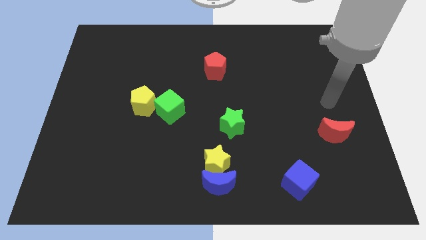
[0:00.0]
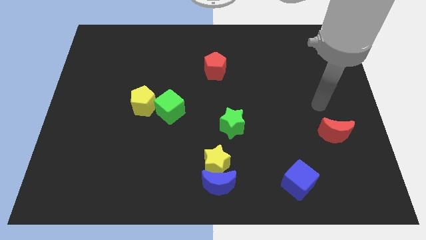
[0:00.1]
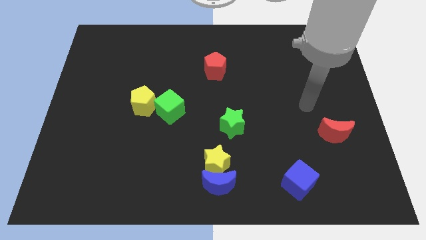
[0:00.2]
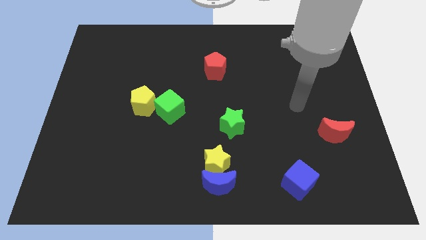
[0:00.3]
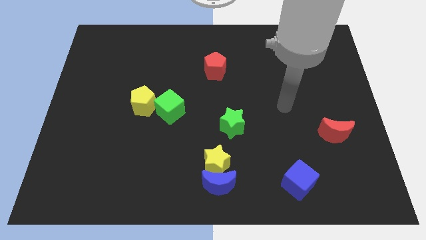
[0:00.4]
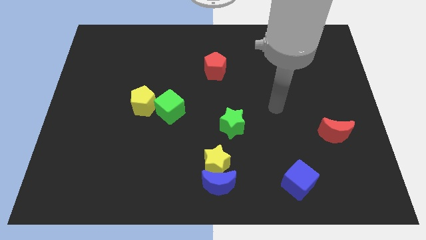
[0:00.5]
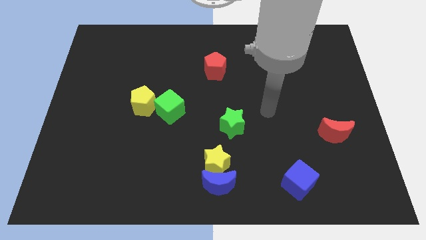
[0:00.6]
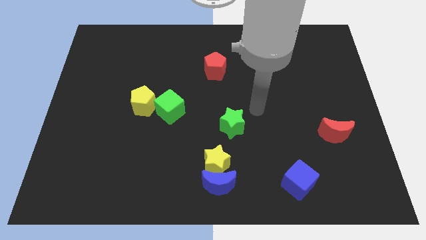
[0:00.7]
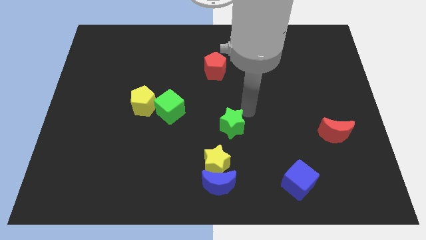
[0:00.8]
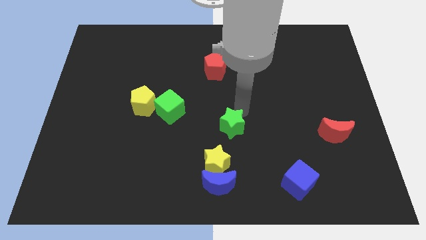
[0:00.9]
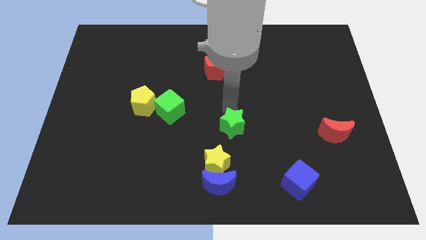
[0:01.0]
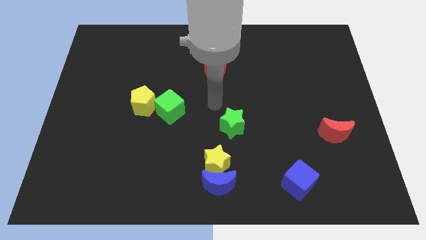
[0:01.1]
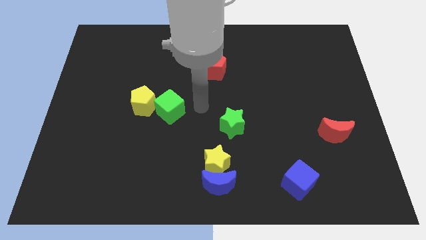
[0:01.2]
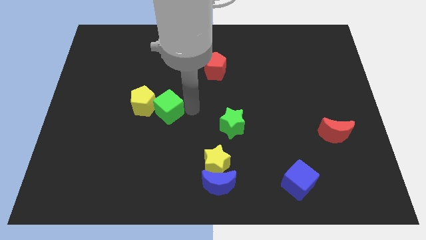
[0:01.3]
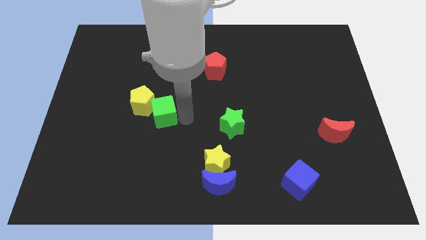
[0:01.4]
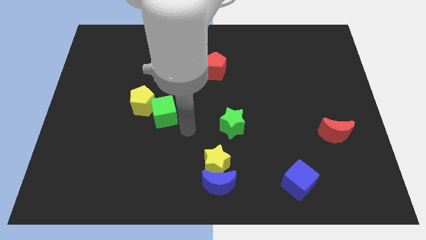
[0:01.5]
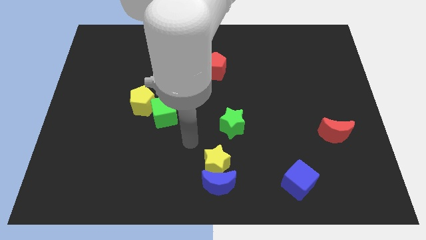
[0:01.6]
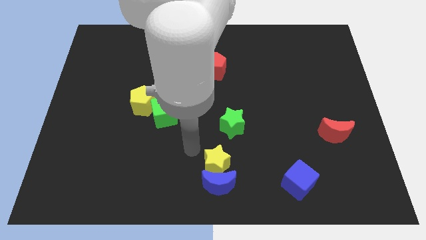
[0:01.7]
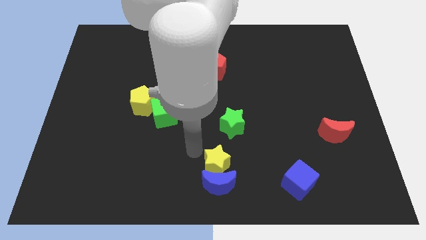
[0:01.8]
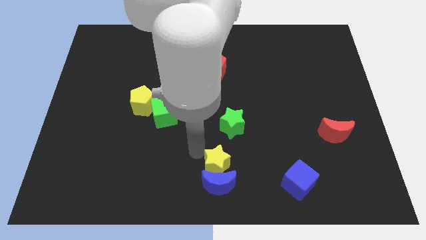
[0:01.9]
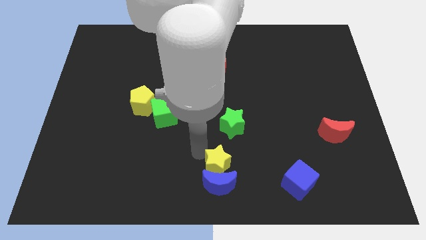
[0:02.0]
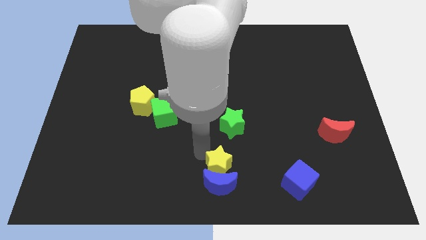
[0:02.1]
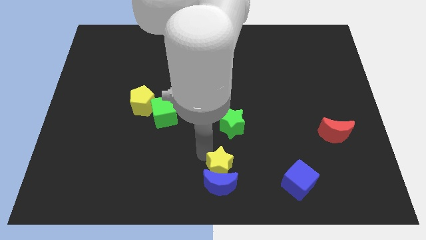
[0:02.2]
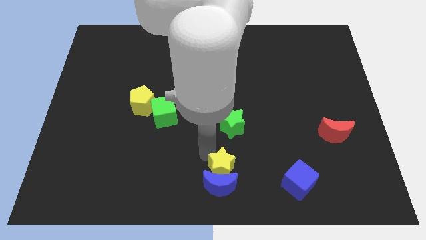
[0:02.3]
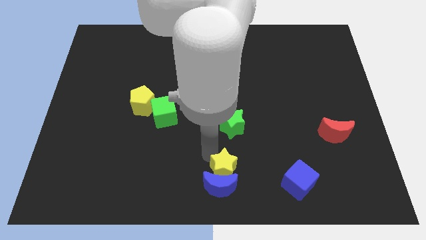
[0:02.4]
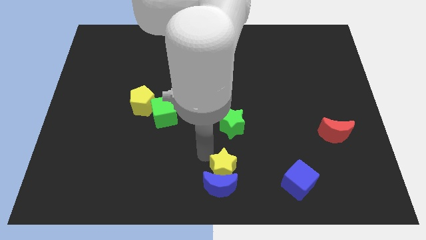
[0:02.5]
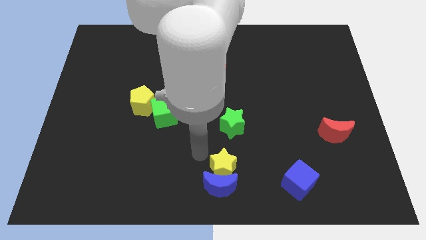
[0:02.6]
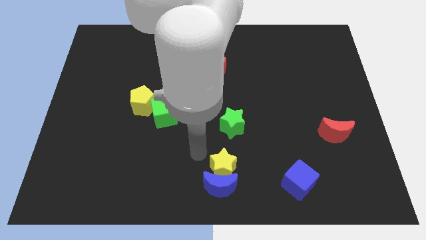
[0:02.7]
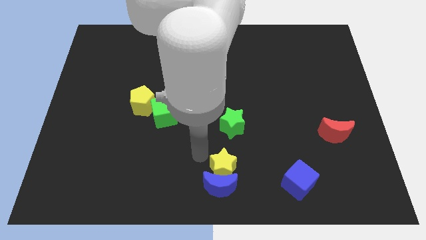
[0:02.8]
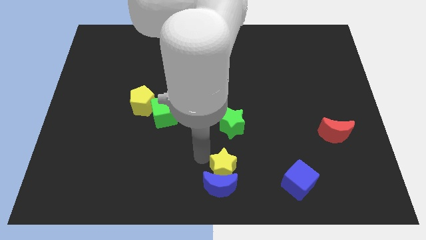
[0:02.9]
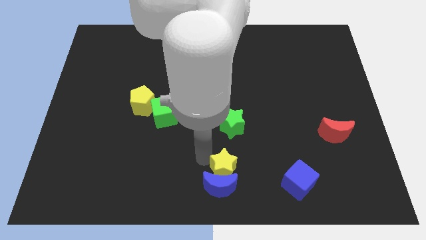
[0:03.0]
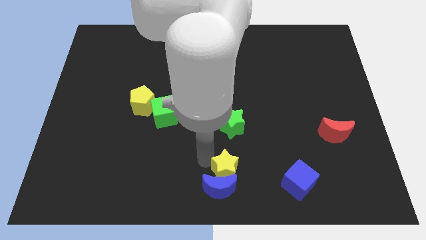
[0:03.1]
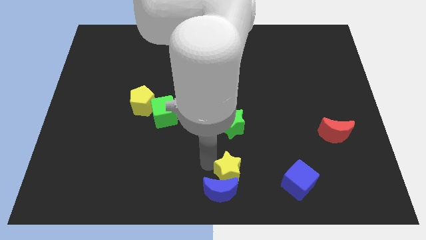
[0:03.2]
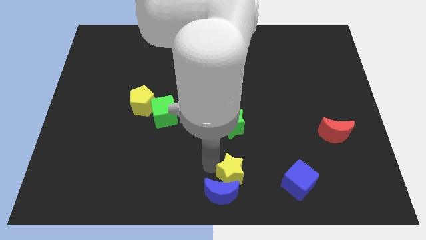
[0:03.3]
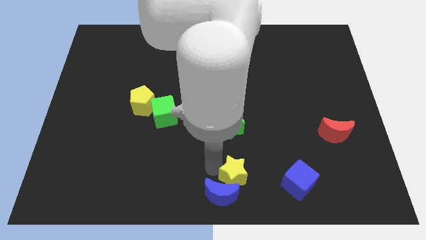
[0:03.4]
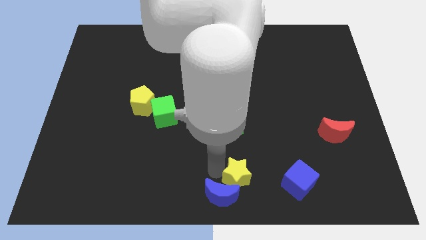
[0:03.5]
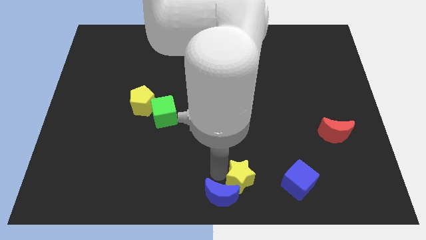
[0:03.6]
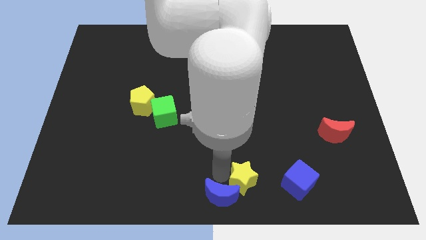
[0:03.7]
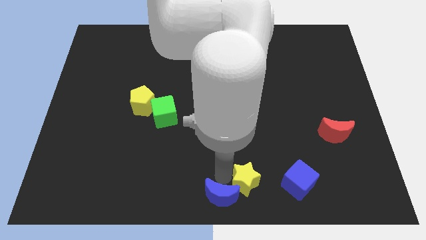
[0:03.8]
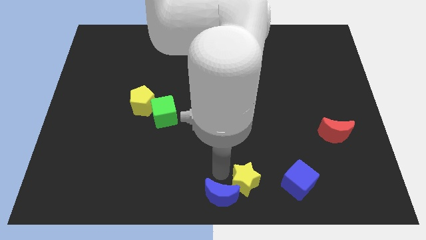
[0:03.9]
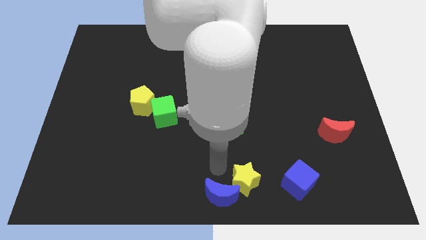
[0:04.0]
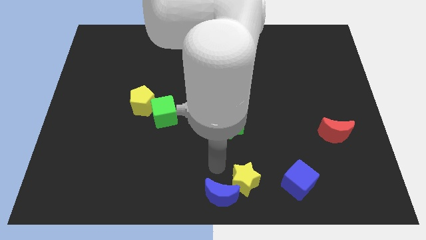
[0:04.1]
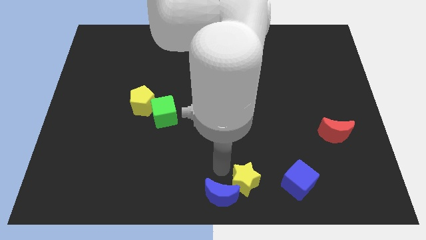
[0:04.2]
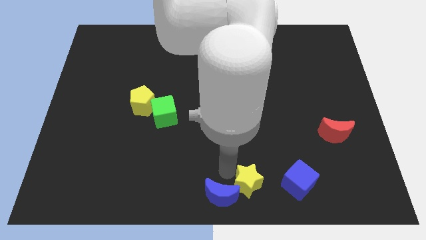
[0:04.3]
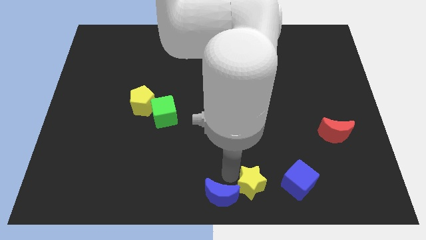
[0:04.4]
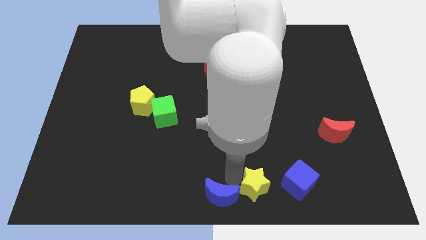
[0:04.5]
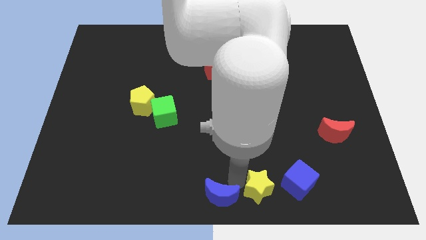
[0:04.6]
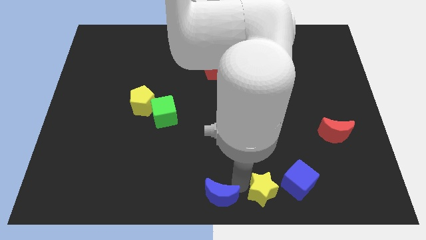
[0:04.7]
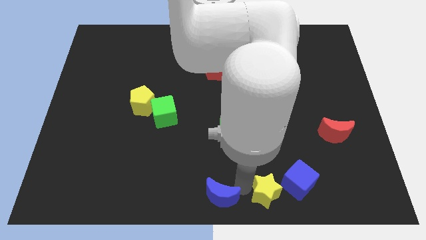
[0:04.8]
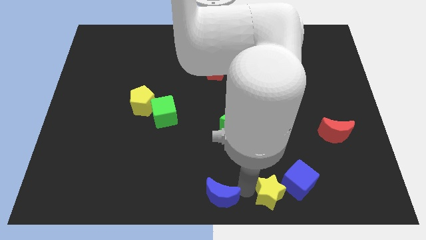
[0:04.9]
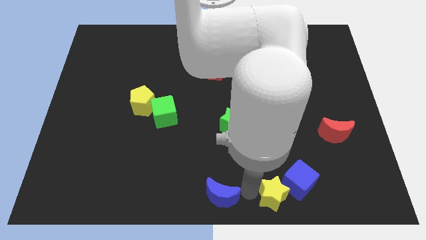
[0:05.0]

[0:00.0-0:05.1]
slide the yellow star close to the blue cube

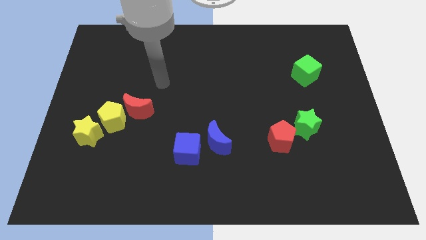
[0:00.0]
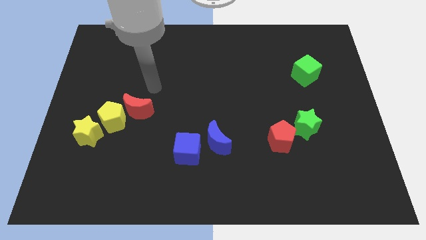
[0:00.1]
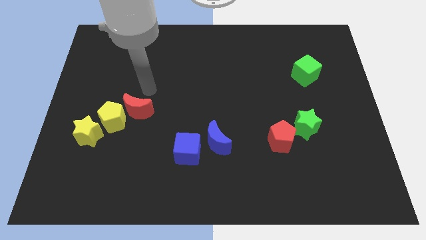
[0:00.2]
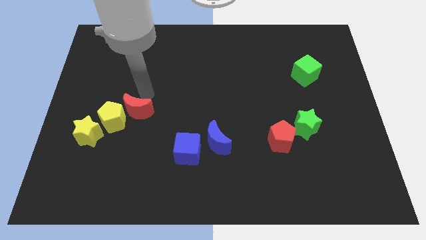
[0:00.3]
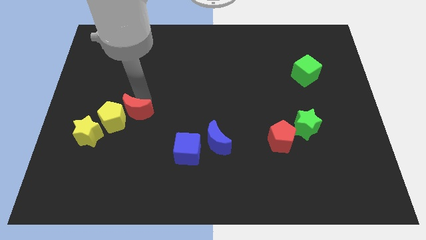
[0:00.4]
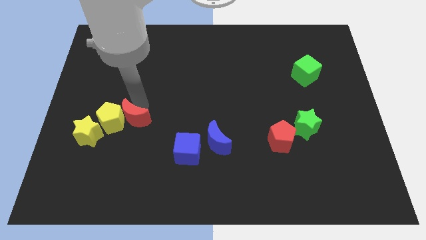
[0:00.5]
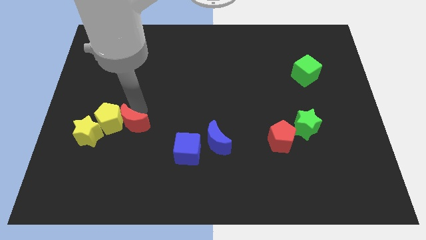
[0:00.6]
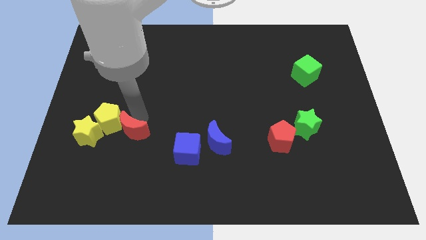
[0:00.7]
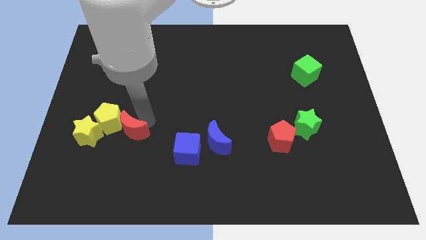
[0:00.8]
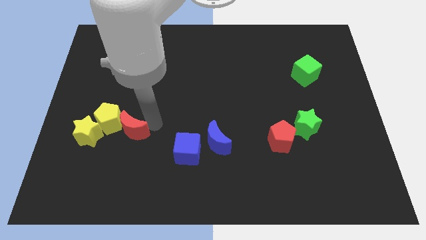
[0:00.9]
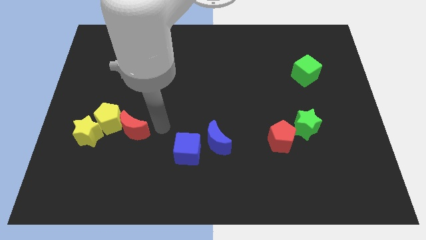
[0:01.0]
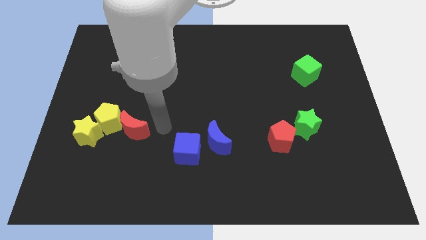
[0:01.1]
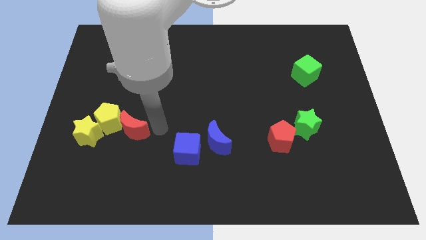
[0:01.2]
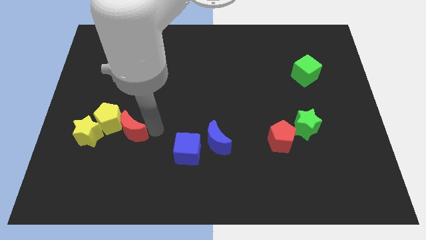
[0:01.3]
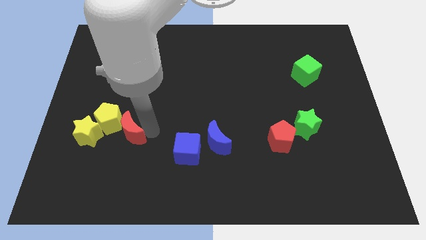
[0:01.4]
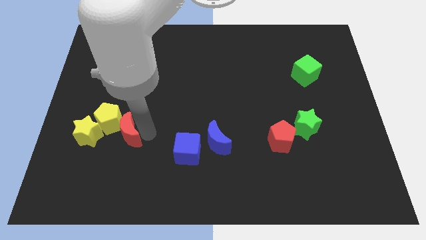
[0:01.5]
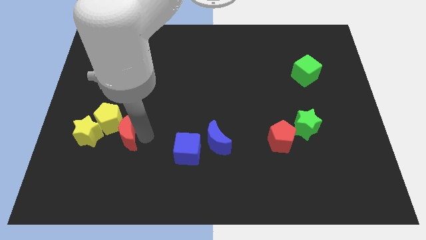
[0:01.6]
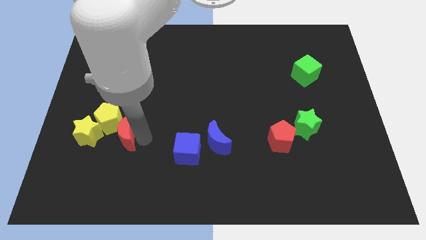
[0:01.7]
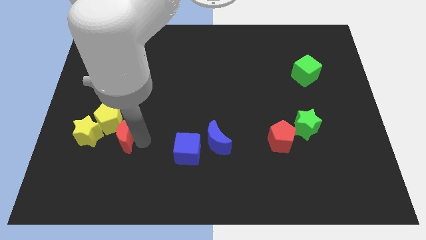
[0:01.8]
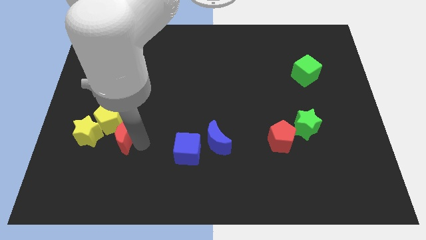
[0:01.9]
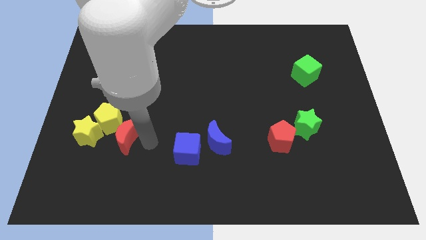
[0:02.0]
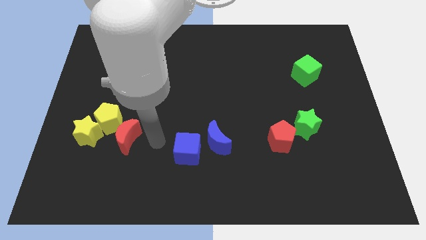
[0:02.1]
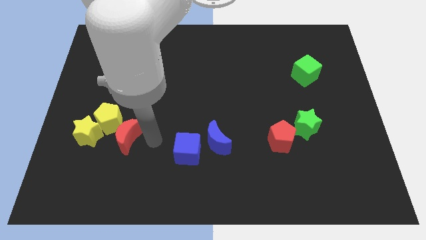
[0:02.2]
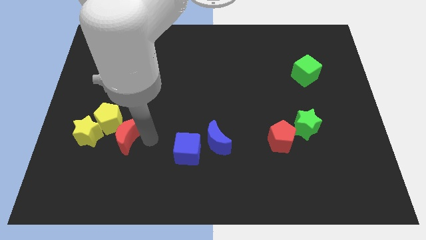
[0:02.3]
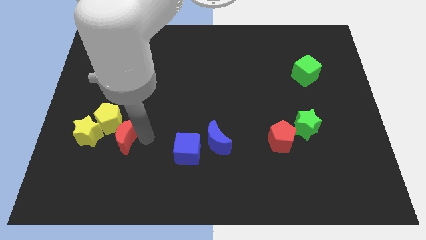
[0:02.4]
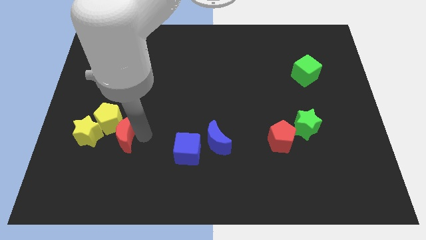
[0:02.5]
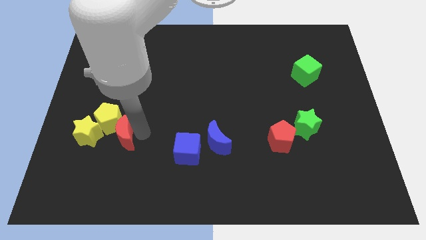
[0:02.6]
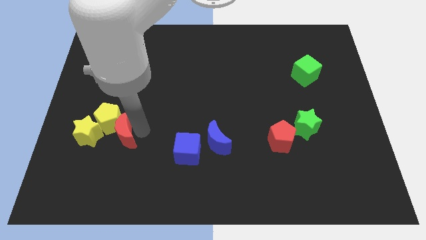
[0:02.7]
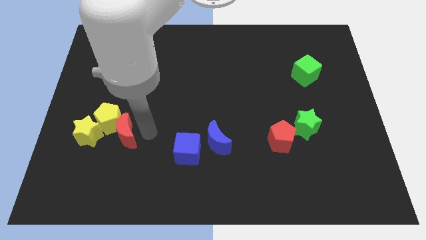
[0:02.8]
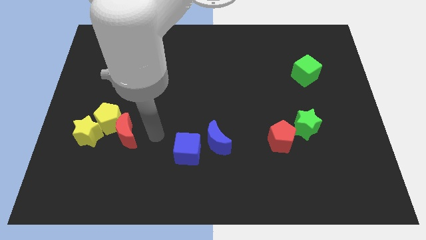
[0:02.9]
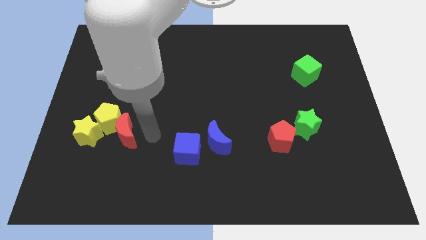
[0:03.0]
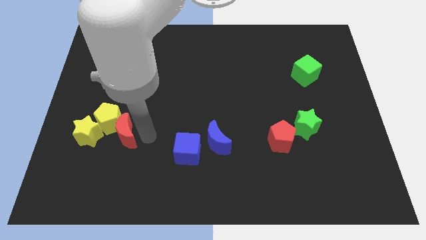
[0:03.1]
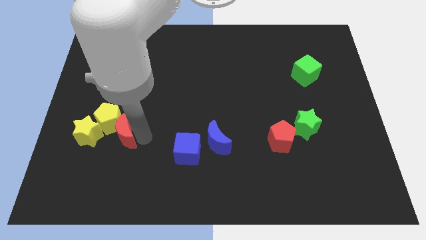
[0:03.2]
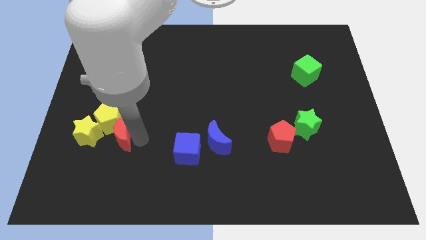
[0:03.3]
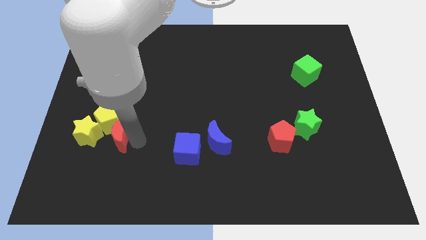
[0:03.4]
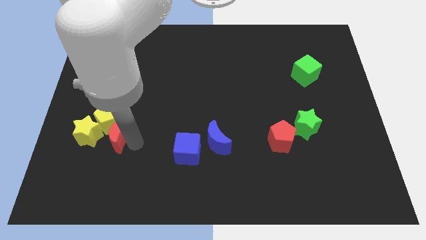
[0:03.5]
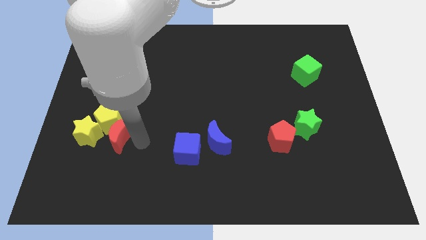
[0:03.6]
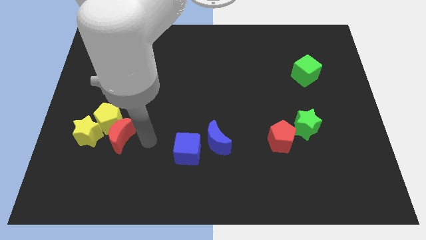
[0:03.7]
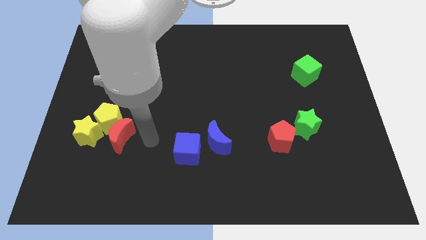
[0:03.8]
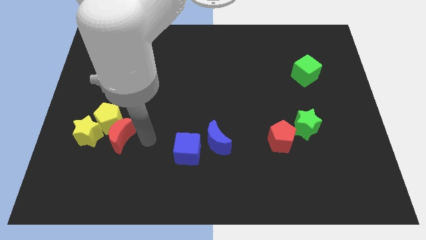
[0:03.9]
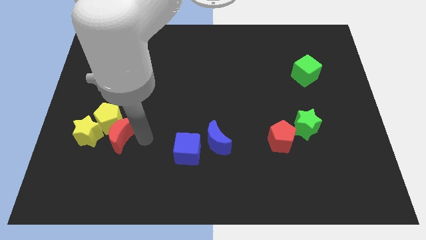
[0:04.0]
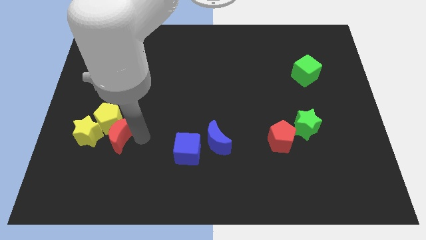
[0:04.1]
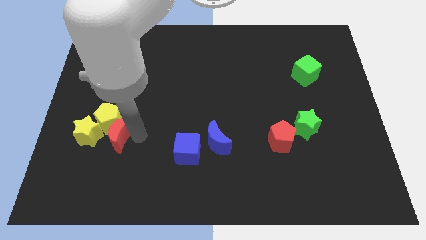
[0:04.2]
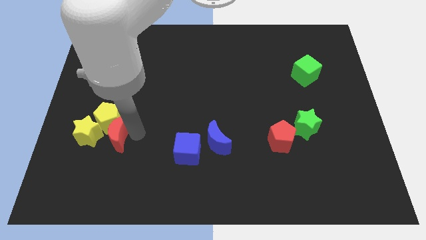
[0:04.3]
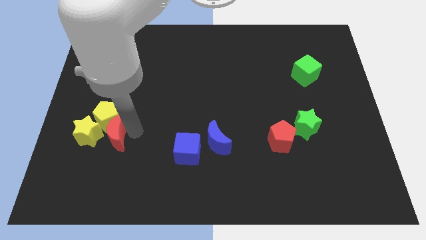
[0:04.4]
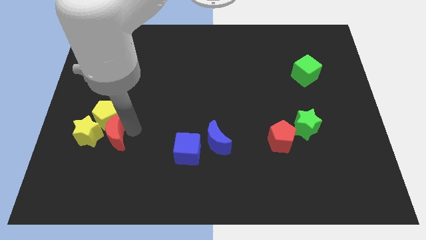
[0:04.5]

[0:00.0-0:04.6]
push the red moon next to the yellow star
